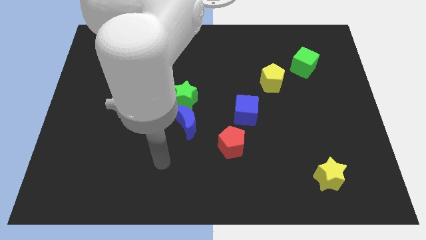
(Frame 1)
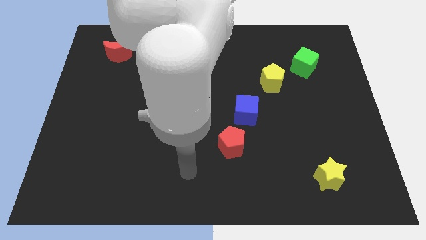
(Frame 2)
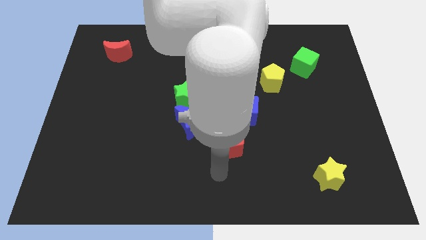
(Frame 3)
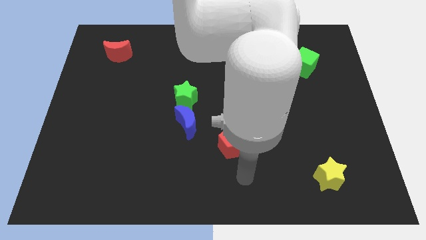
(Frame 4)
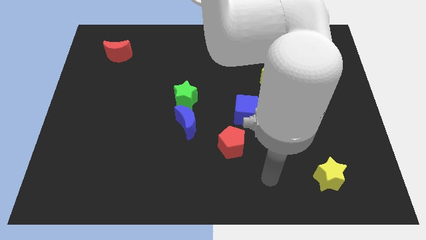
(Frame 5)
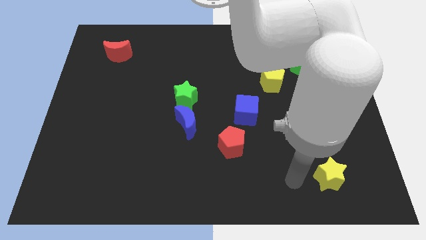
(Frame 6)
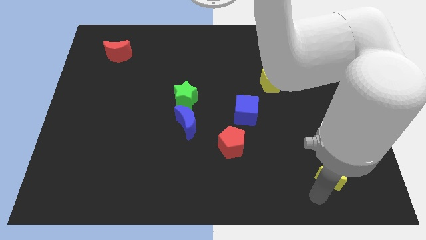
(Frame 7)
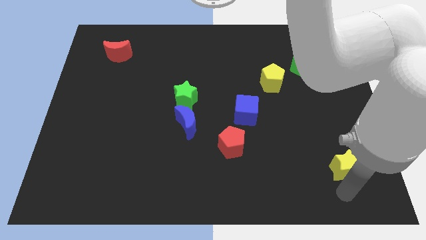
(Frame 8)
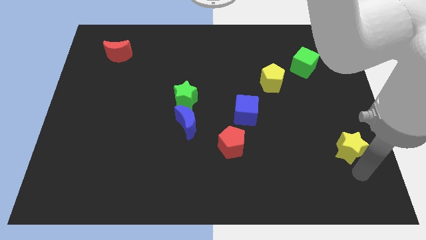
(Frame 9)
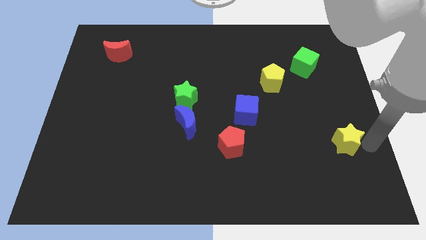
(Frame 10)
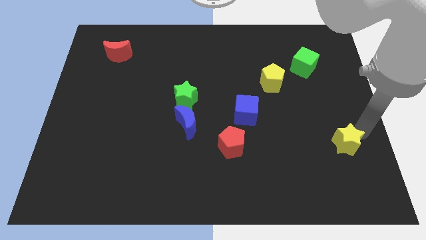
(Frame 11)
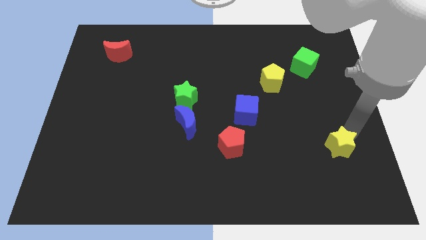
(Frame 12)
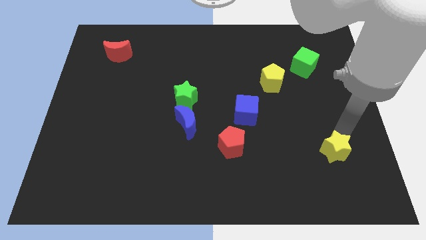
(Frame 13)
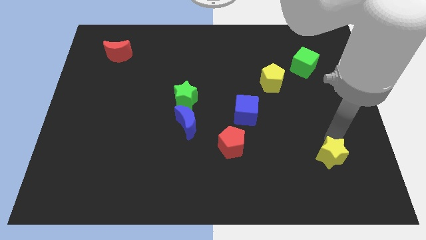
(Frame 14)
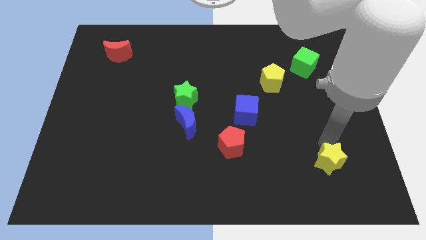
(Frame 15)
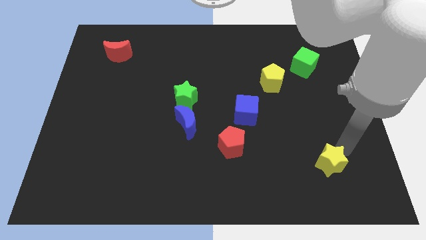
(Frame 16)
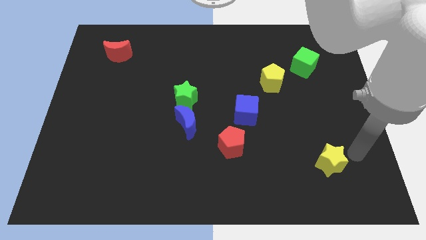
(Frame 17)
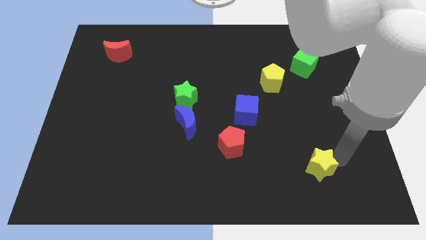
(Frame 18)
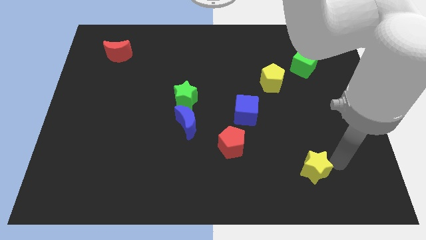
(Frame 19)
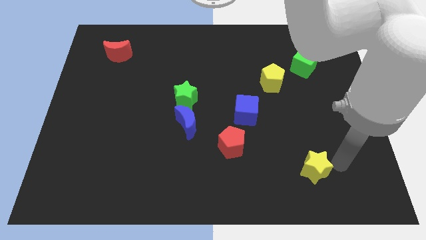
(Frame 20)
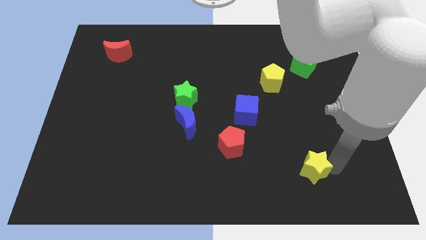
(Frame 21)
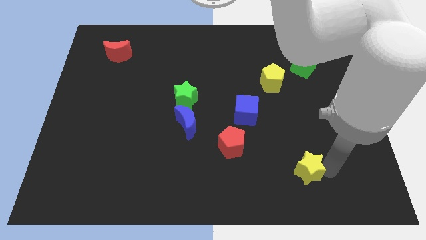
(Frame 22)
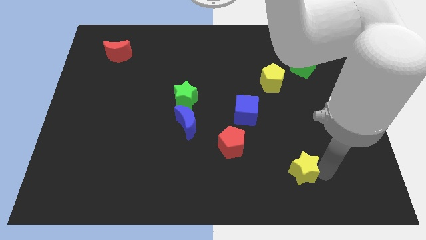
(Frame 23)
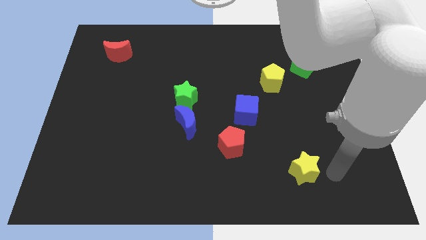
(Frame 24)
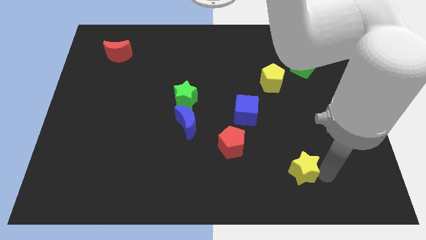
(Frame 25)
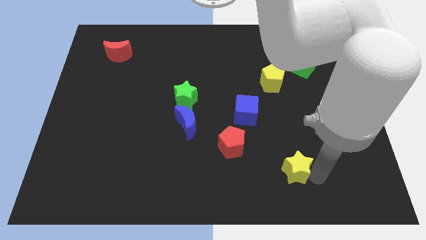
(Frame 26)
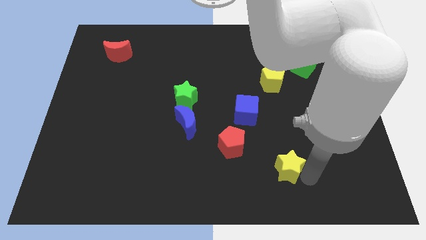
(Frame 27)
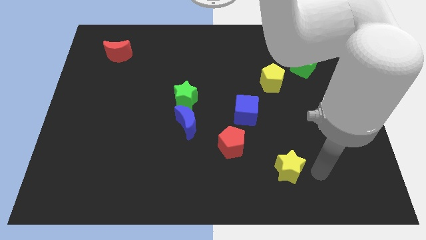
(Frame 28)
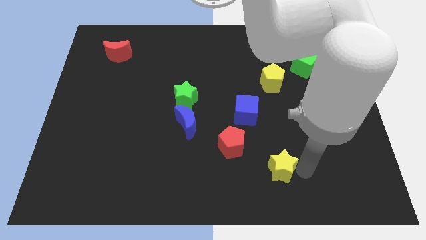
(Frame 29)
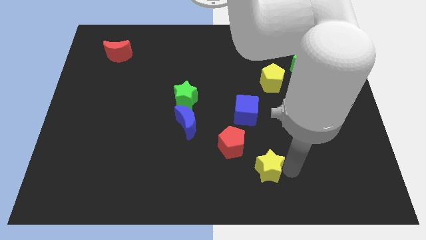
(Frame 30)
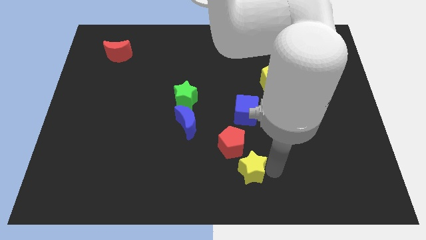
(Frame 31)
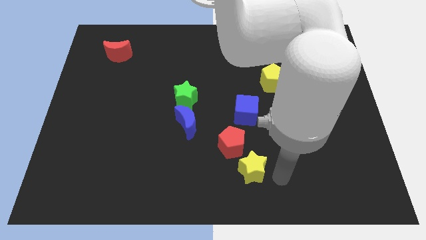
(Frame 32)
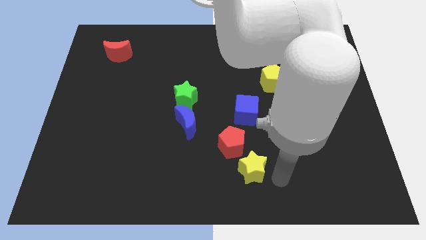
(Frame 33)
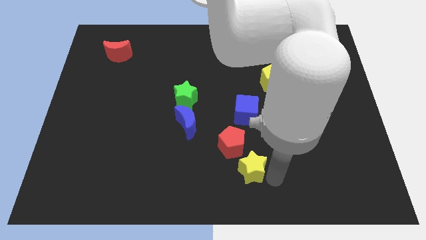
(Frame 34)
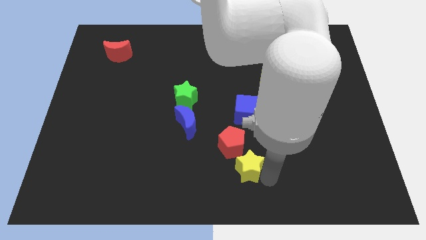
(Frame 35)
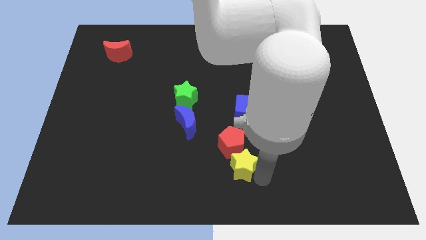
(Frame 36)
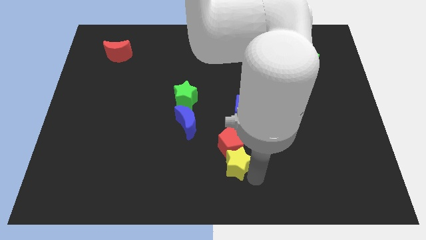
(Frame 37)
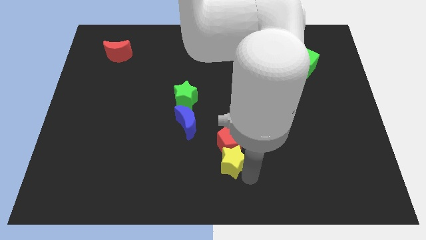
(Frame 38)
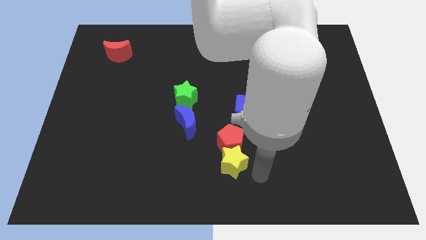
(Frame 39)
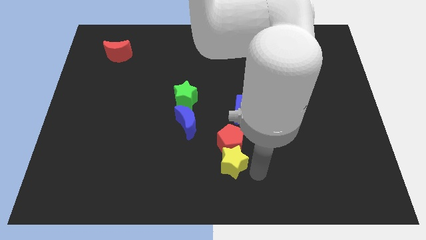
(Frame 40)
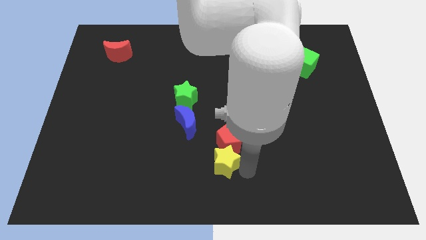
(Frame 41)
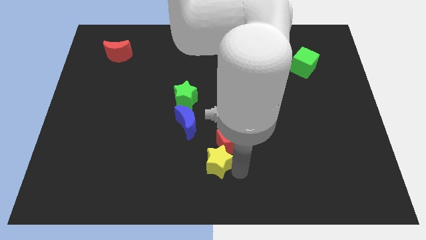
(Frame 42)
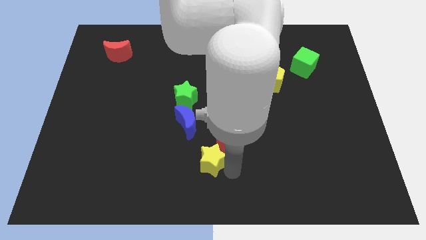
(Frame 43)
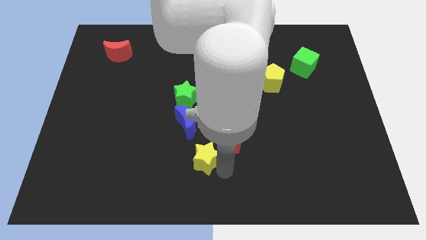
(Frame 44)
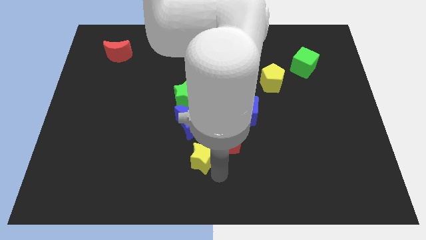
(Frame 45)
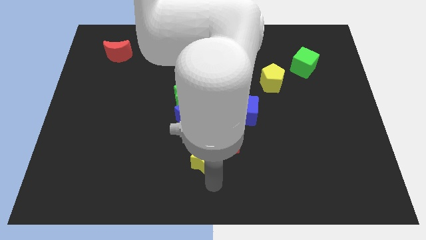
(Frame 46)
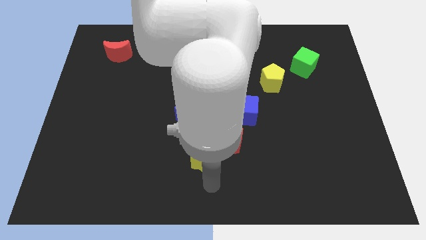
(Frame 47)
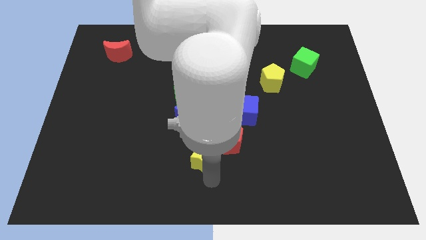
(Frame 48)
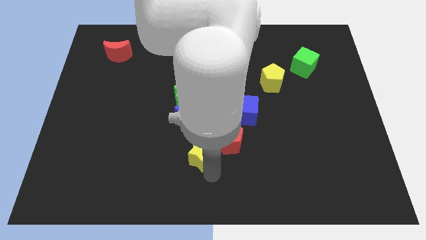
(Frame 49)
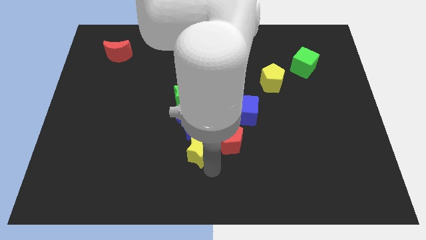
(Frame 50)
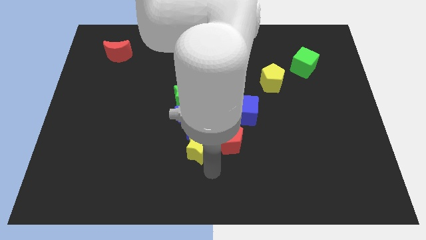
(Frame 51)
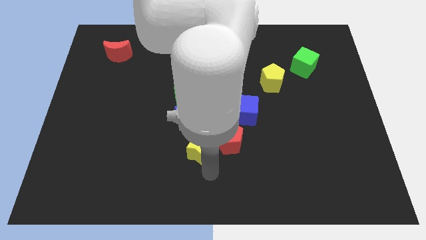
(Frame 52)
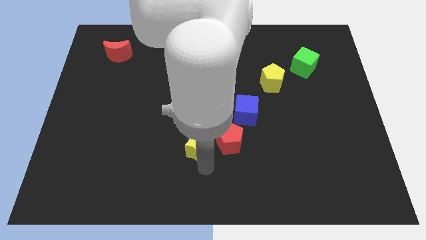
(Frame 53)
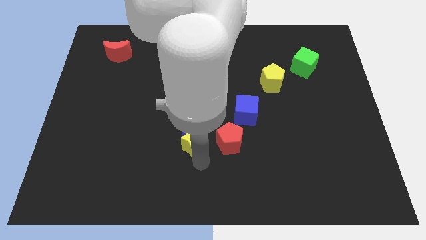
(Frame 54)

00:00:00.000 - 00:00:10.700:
push the yellow star next to the blue moon

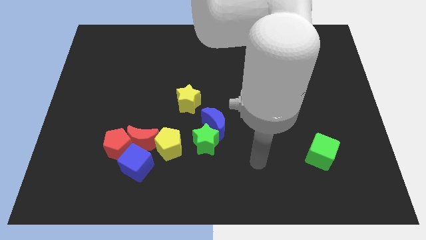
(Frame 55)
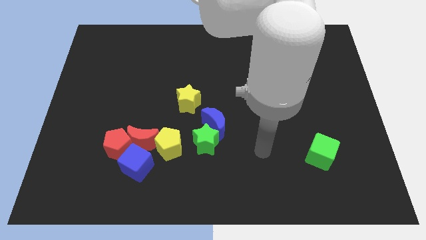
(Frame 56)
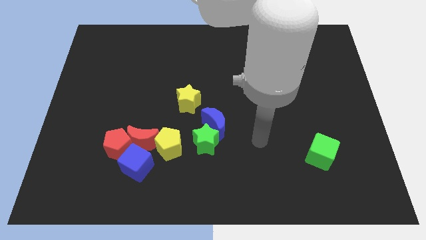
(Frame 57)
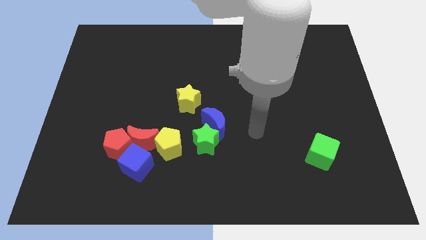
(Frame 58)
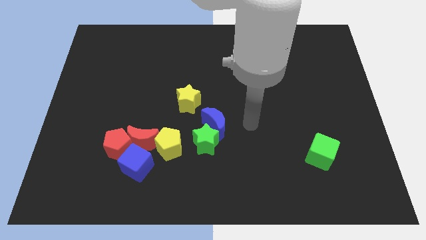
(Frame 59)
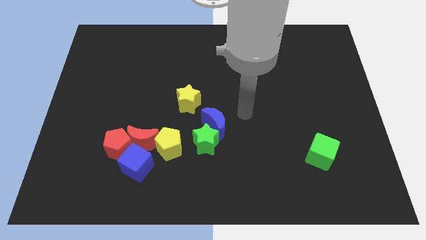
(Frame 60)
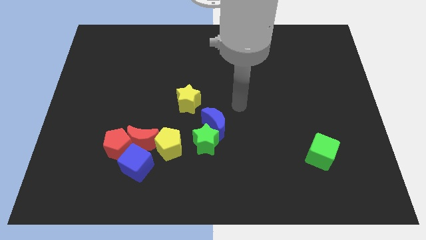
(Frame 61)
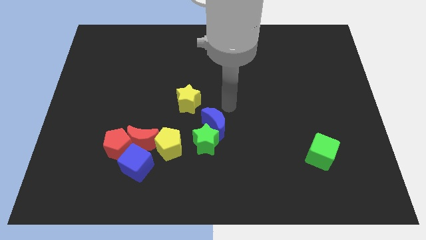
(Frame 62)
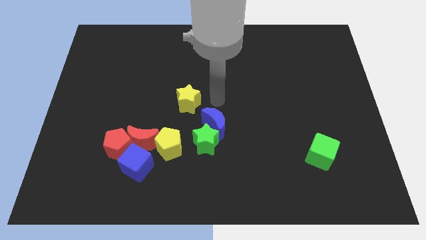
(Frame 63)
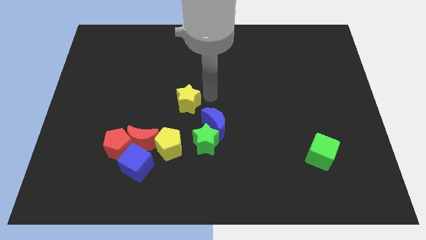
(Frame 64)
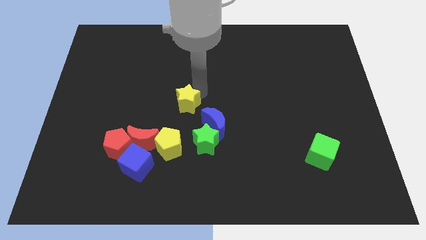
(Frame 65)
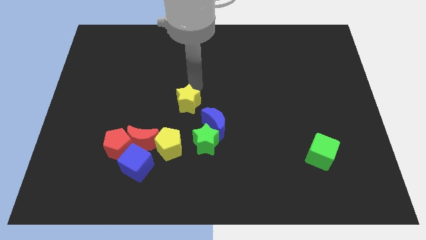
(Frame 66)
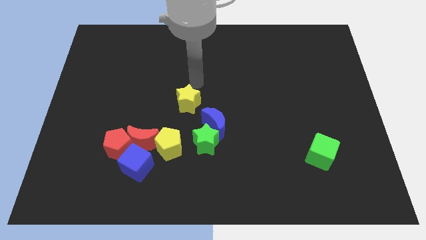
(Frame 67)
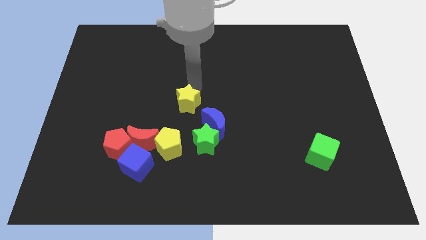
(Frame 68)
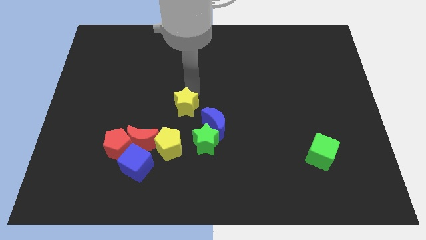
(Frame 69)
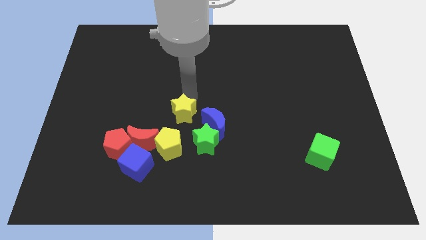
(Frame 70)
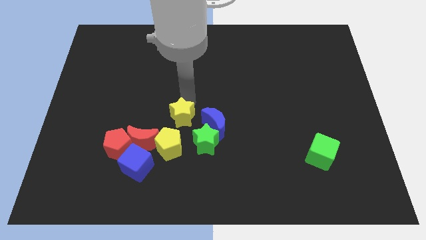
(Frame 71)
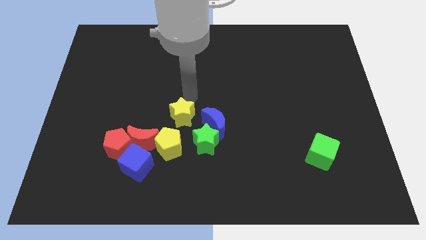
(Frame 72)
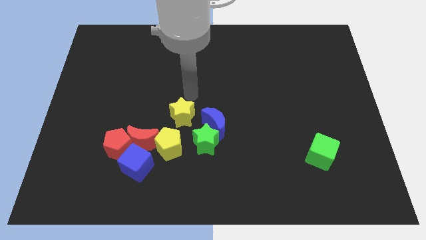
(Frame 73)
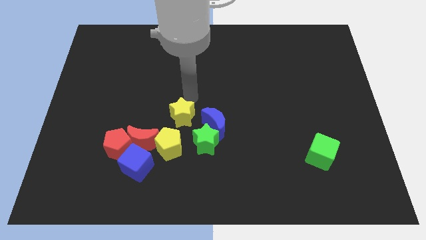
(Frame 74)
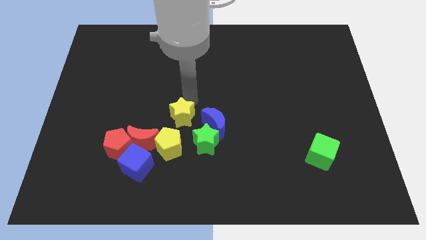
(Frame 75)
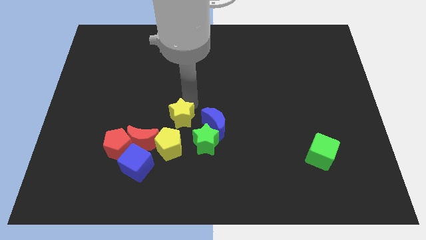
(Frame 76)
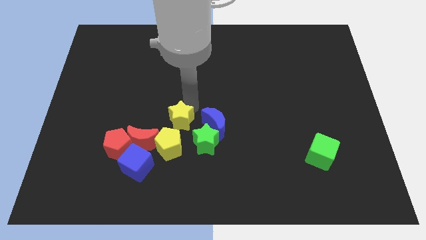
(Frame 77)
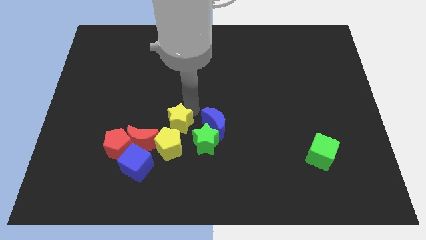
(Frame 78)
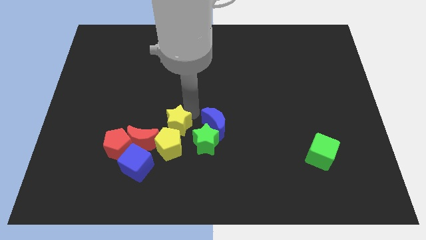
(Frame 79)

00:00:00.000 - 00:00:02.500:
push the yellow star towards the yellow pentagon
